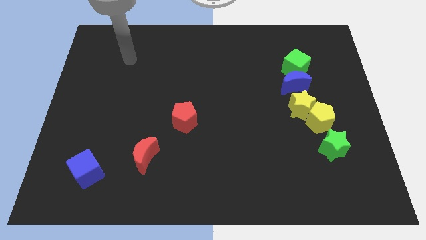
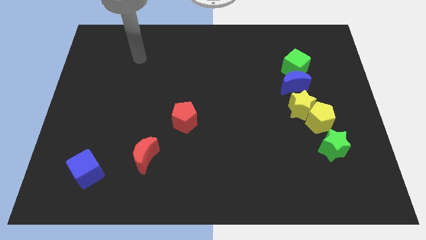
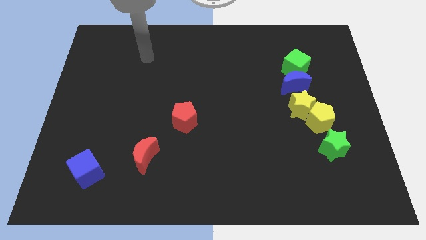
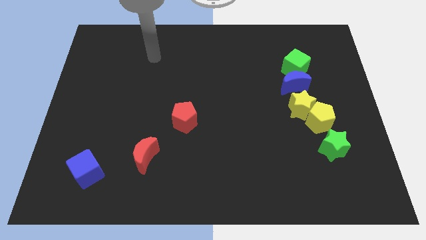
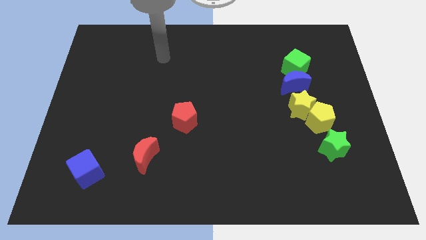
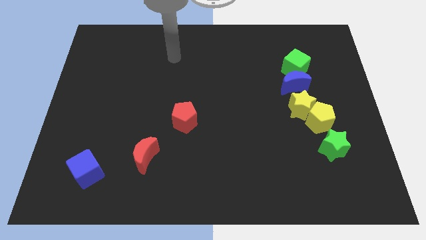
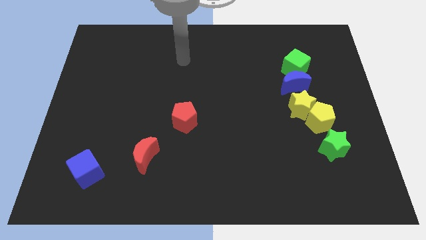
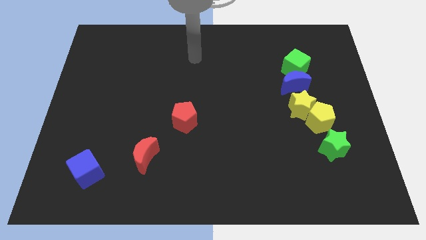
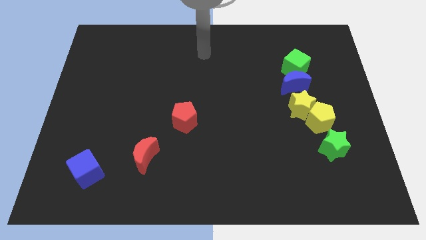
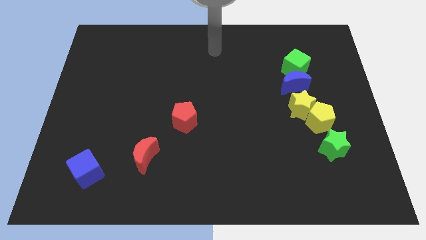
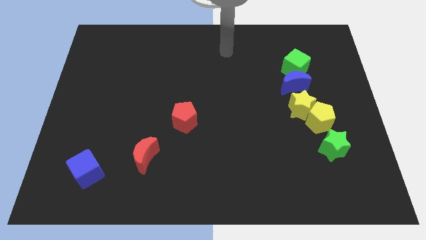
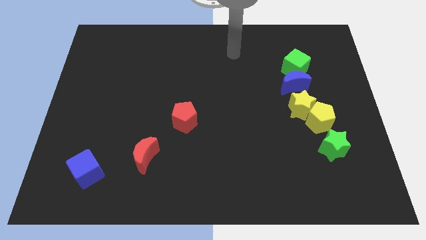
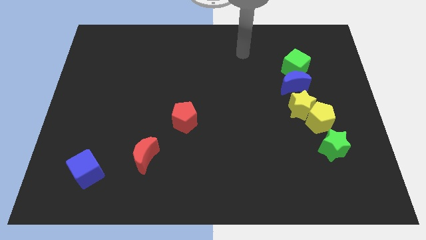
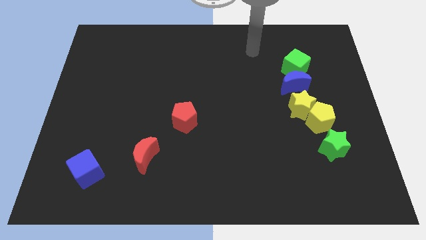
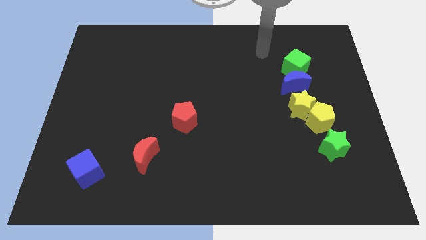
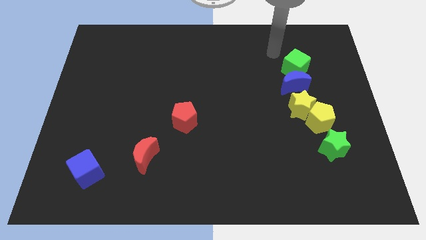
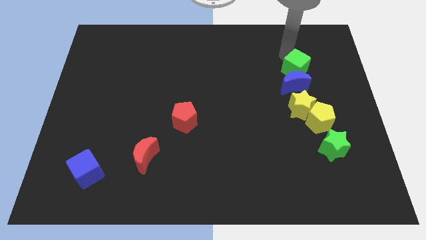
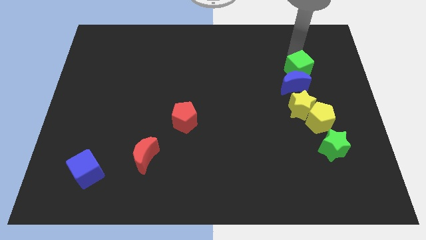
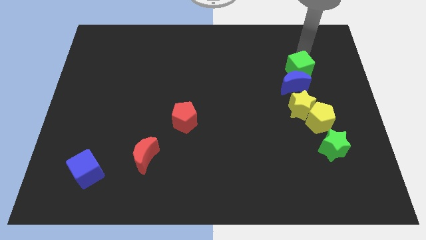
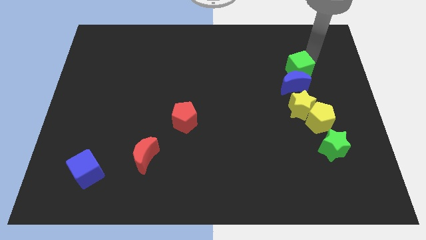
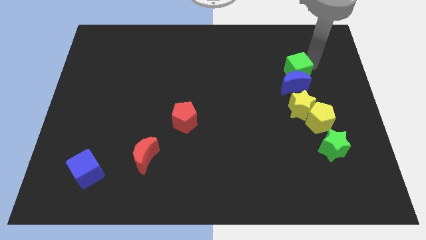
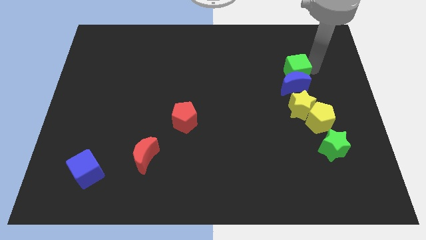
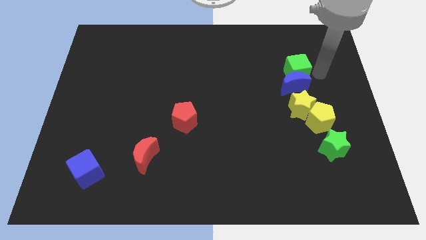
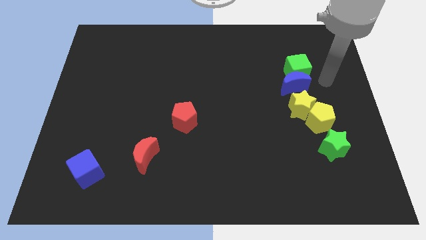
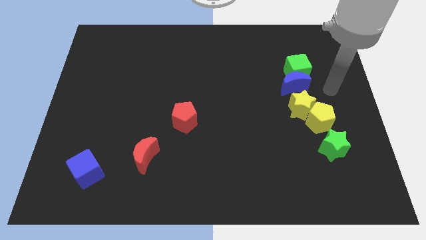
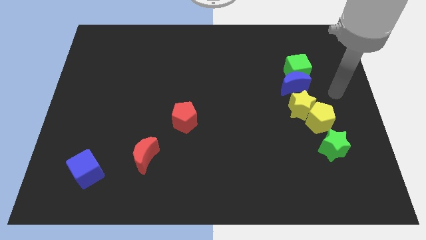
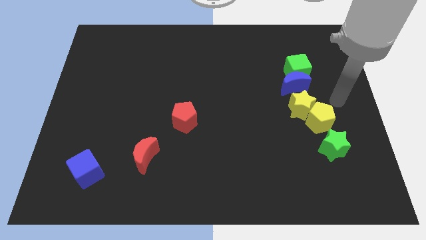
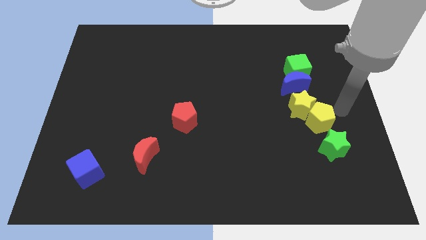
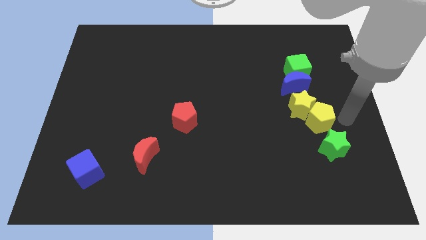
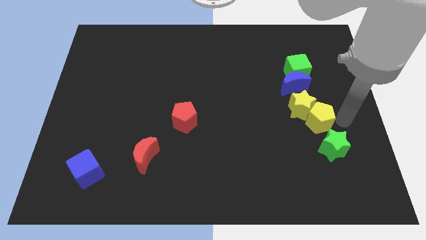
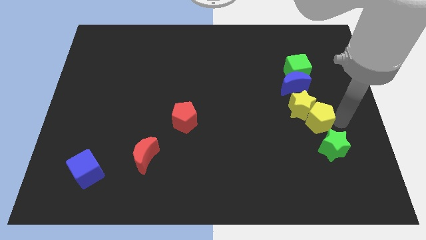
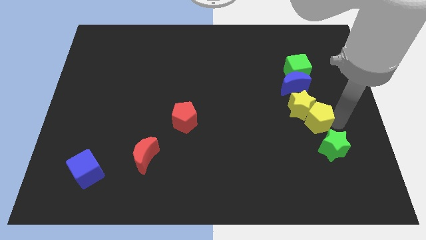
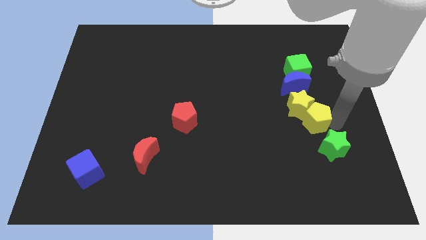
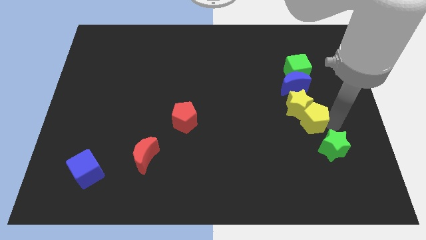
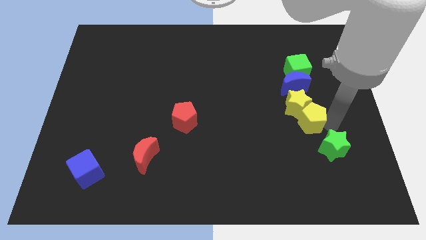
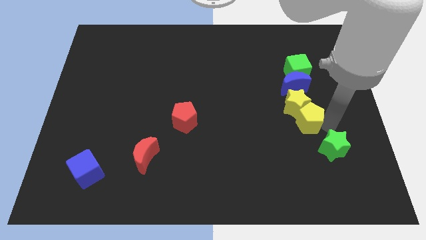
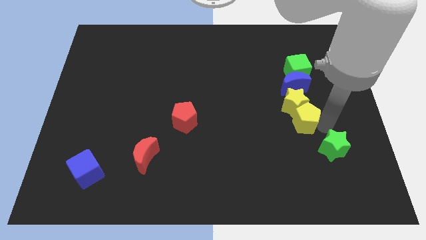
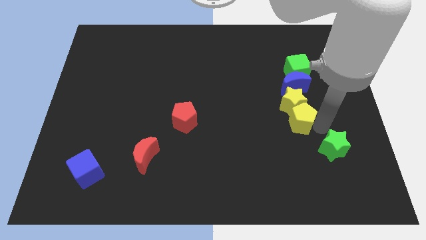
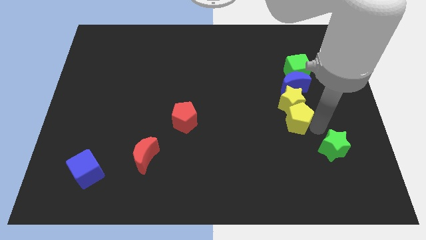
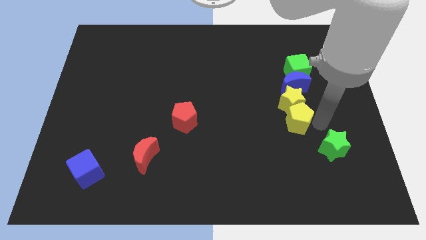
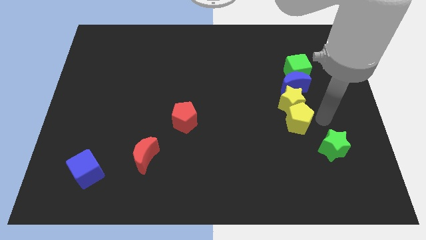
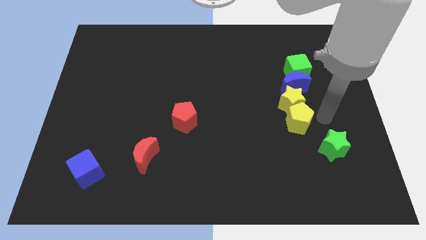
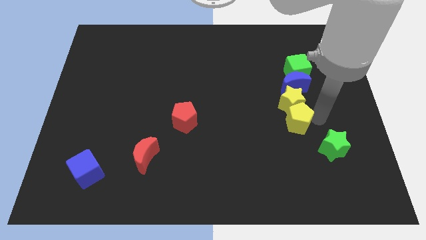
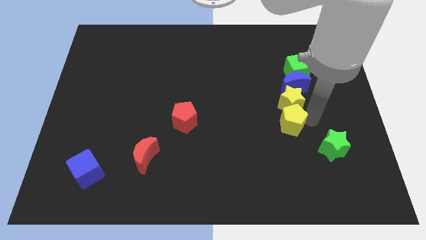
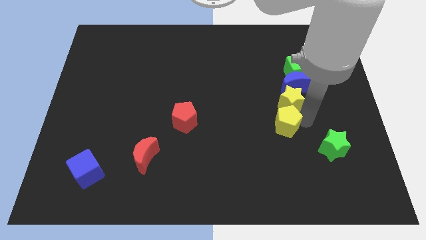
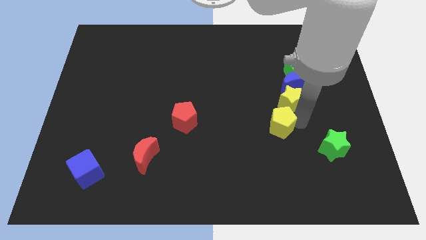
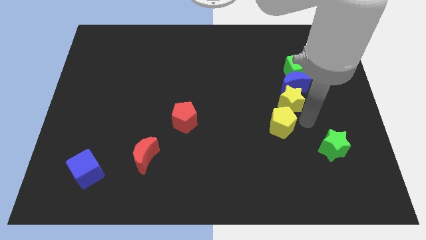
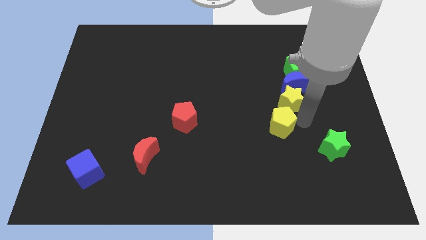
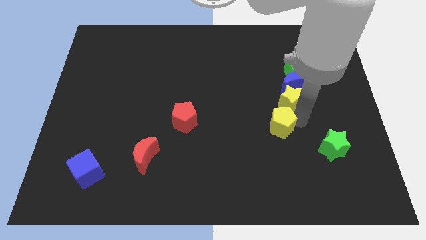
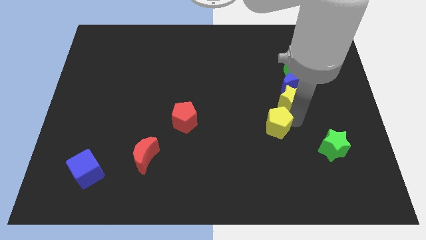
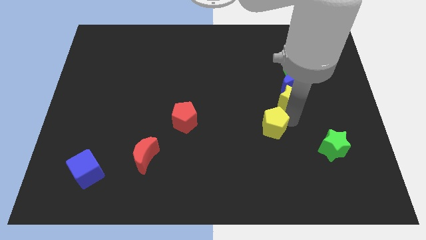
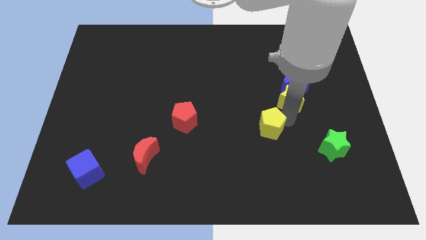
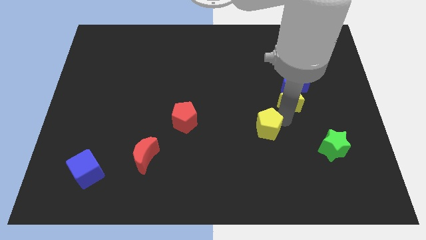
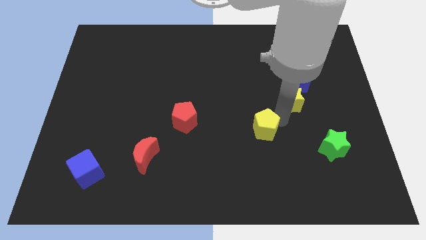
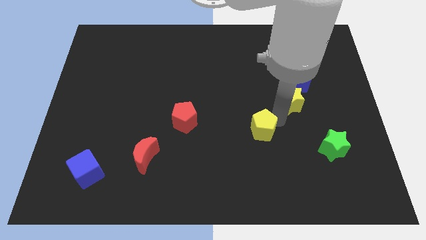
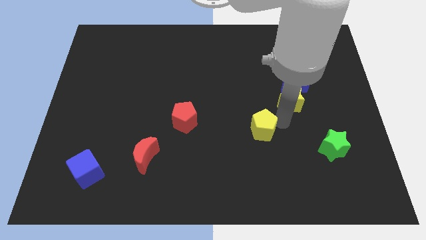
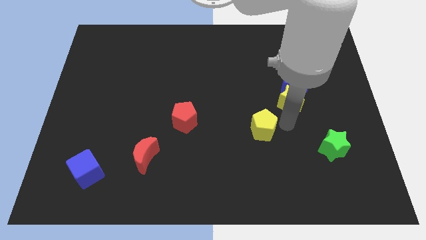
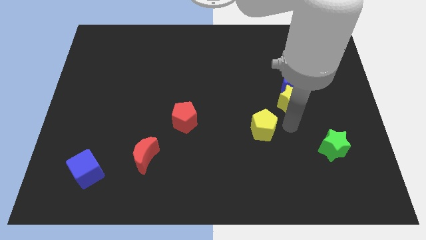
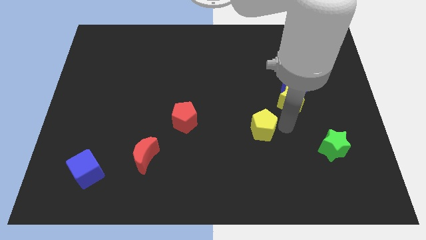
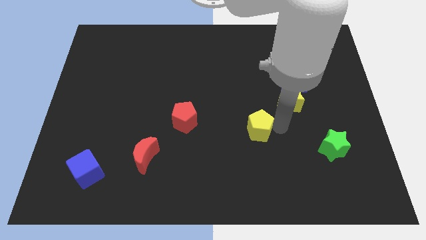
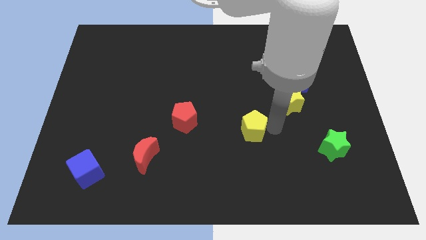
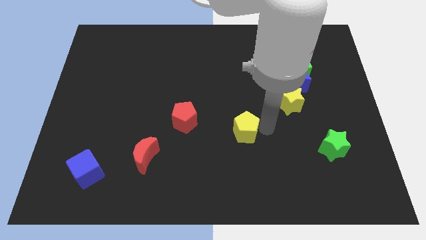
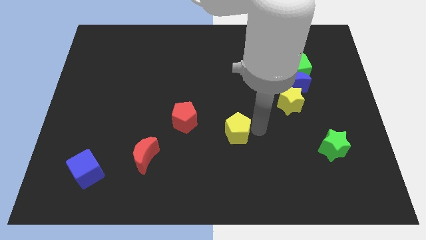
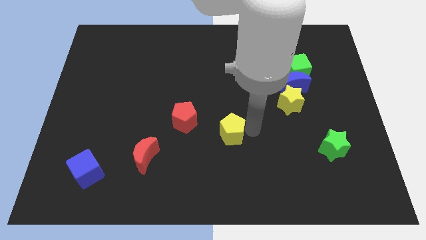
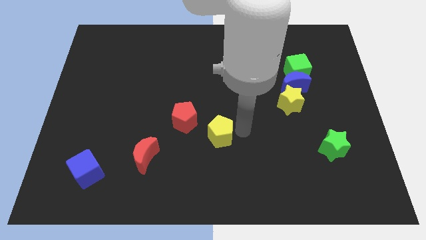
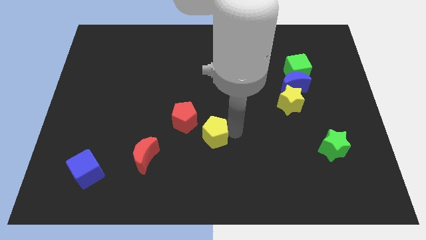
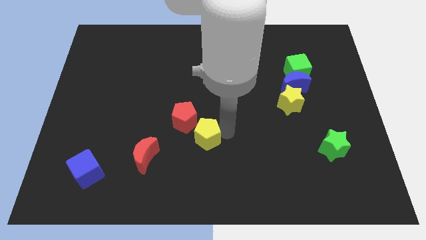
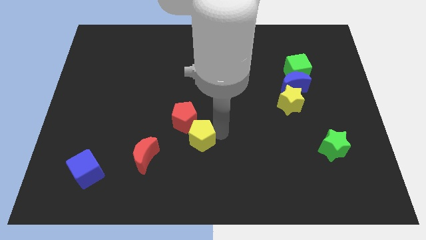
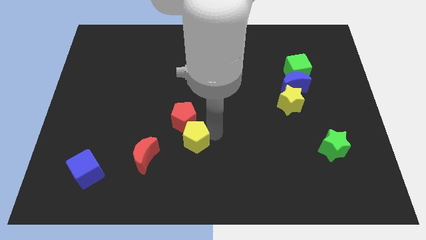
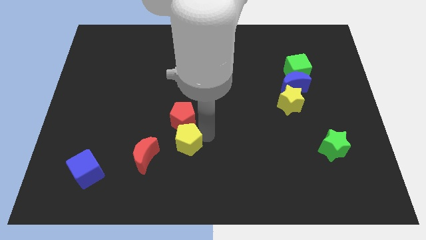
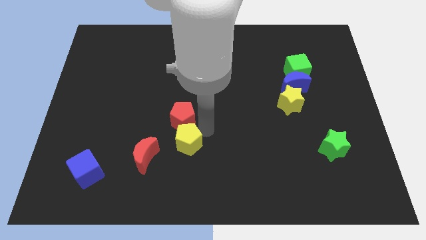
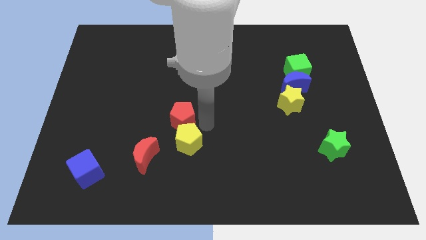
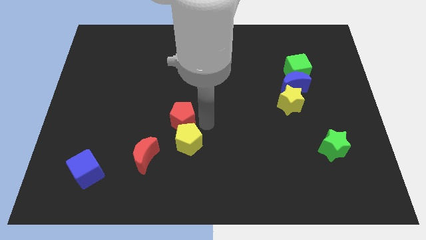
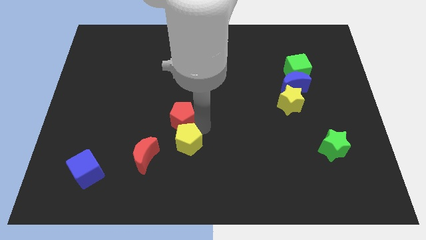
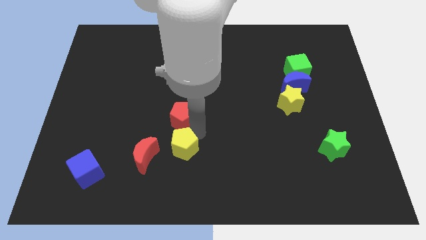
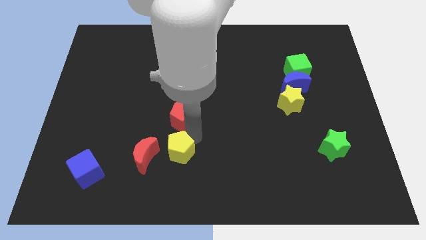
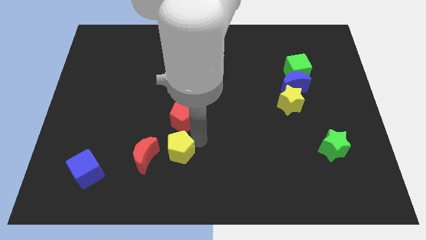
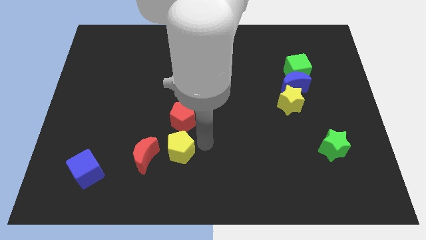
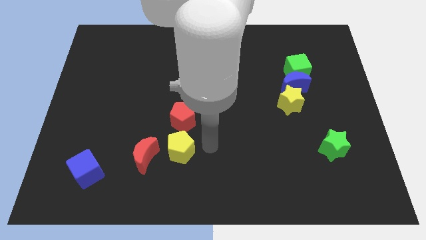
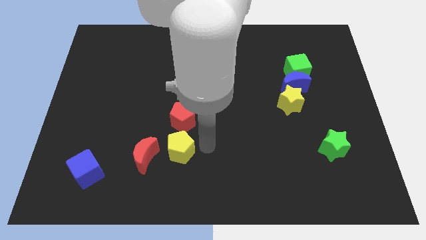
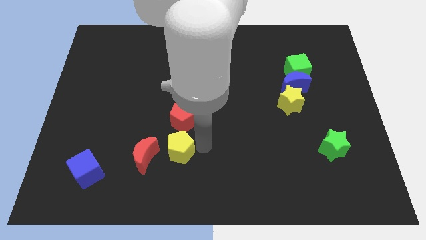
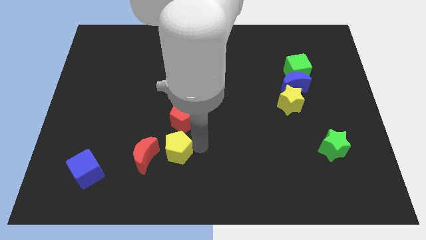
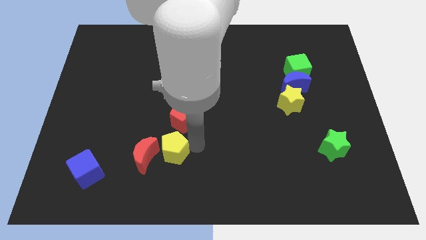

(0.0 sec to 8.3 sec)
put the yellow pentagon to the red moon
